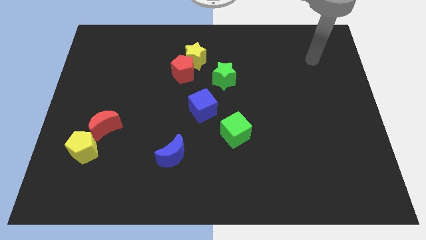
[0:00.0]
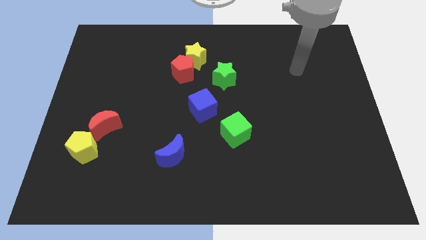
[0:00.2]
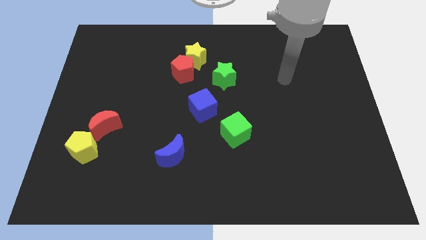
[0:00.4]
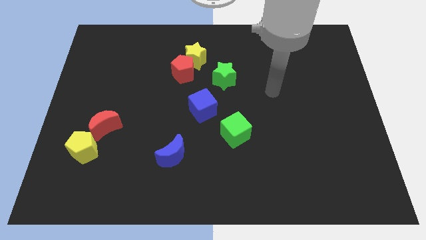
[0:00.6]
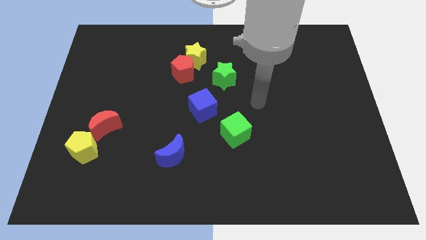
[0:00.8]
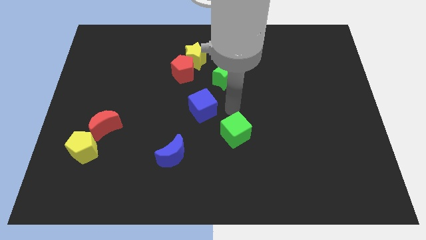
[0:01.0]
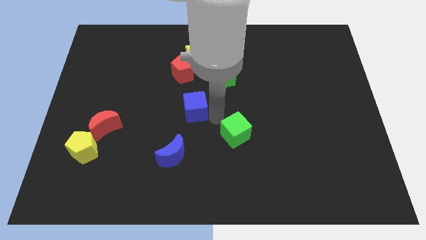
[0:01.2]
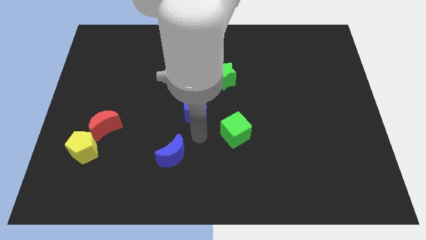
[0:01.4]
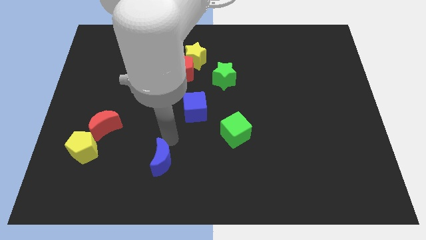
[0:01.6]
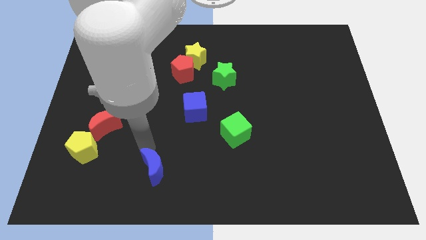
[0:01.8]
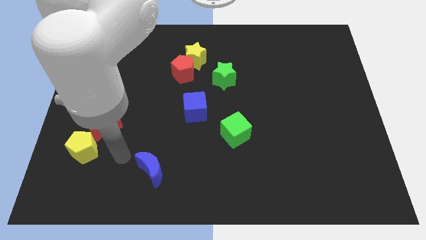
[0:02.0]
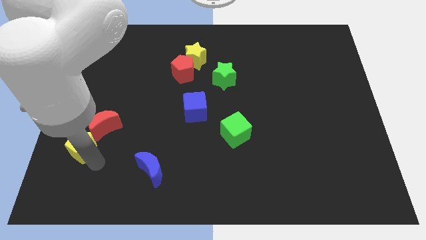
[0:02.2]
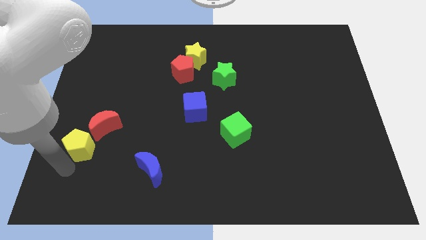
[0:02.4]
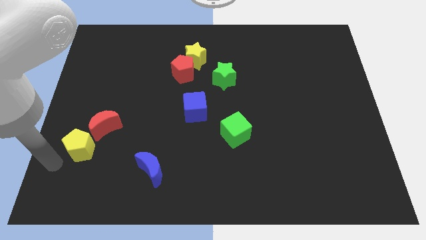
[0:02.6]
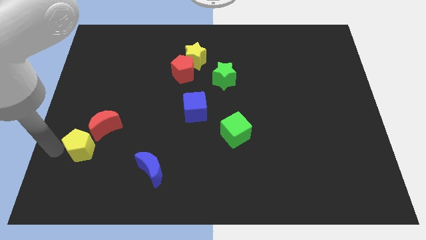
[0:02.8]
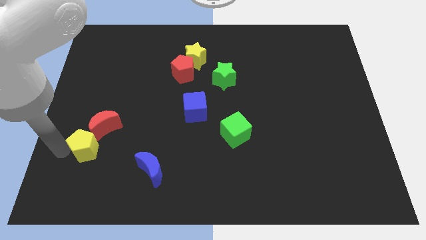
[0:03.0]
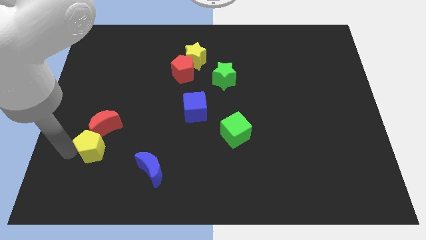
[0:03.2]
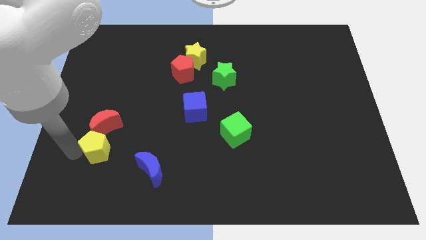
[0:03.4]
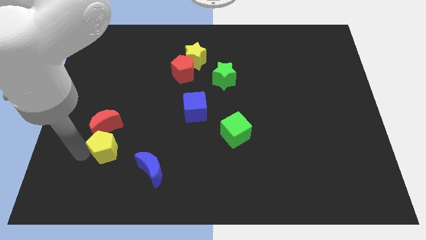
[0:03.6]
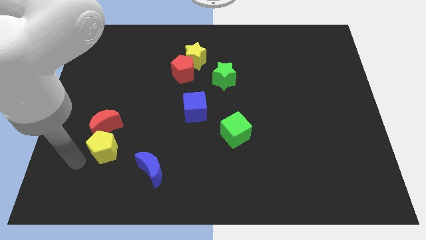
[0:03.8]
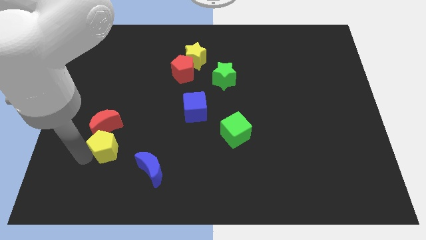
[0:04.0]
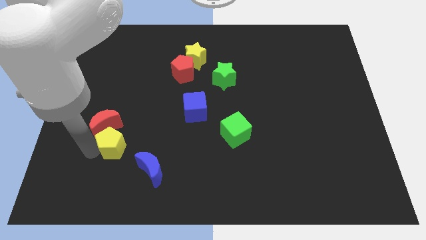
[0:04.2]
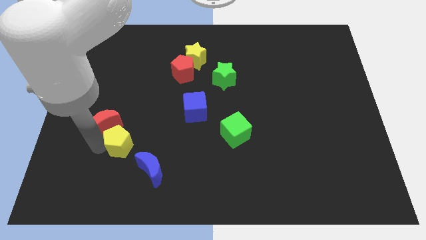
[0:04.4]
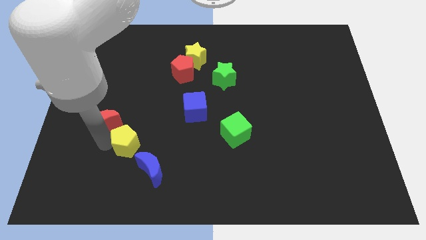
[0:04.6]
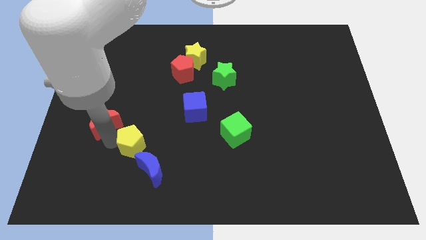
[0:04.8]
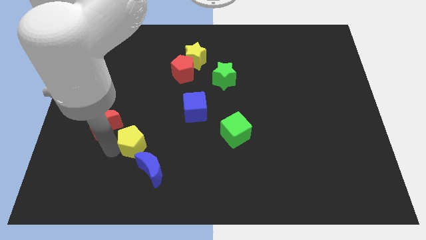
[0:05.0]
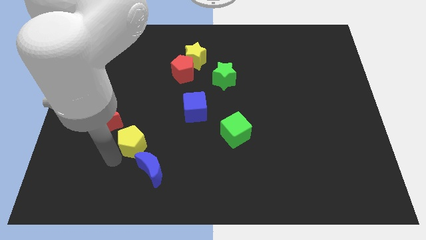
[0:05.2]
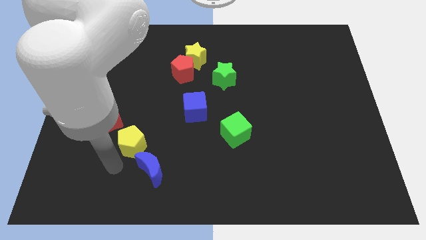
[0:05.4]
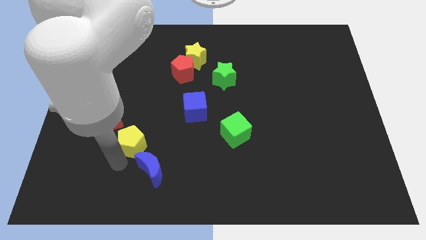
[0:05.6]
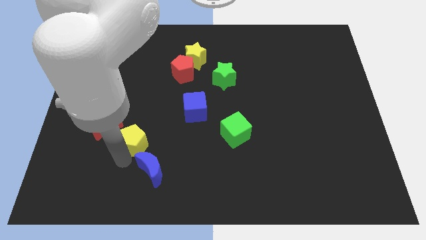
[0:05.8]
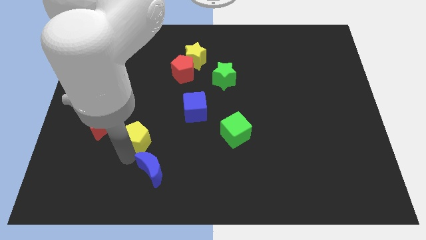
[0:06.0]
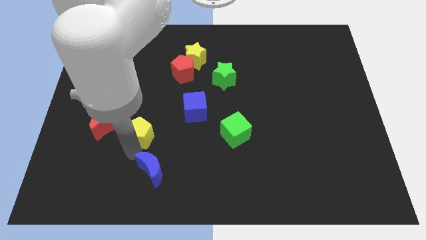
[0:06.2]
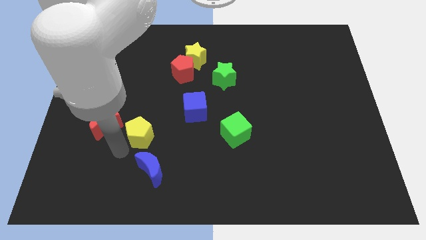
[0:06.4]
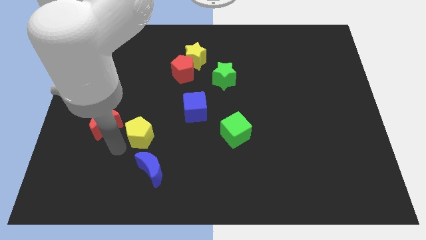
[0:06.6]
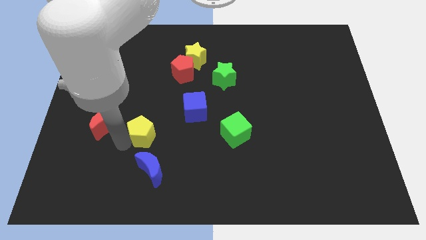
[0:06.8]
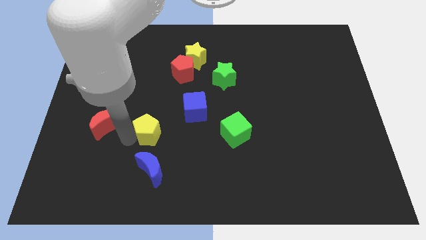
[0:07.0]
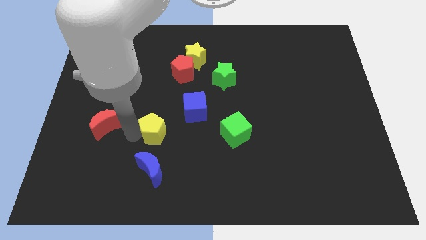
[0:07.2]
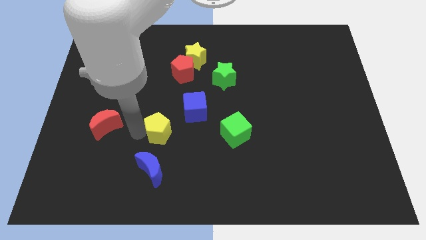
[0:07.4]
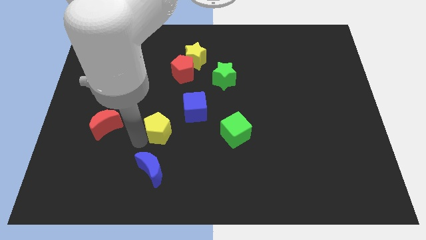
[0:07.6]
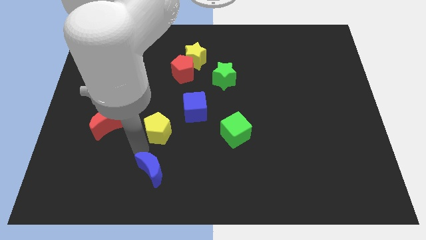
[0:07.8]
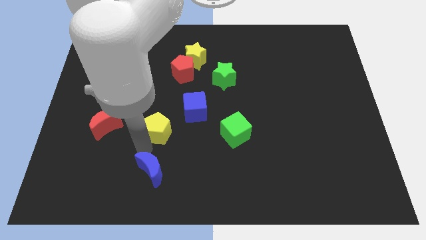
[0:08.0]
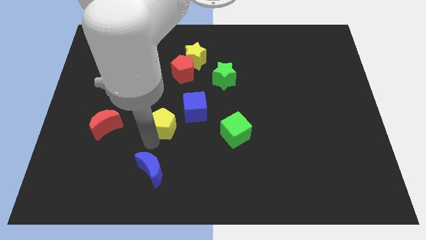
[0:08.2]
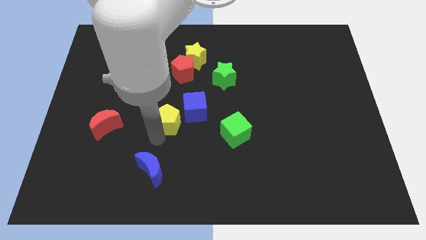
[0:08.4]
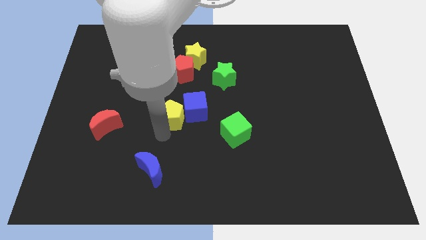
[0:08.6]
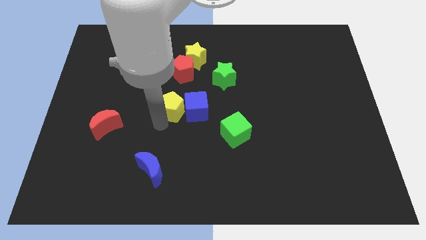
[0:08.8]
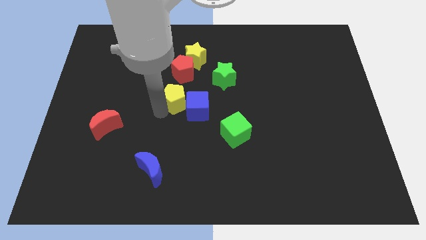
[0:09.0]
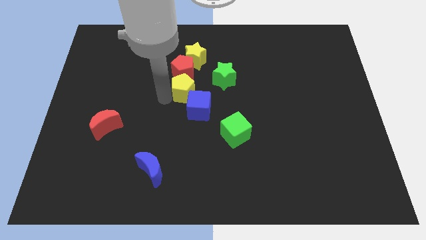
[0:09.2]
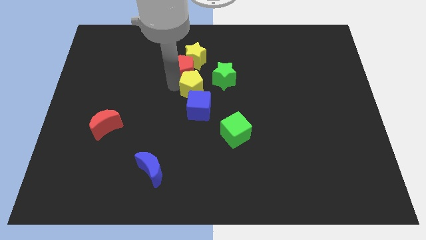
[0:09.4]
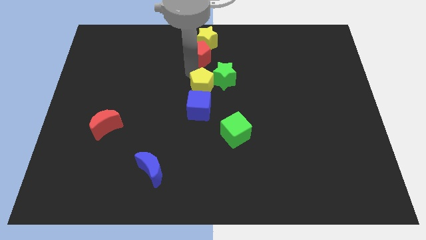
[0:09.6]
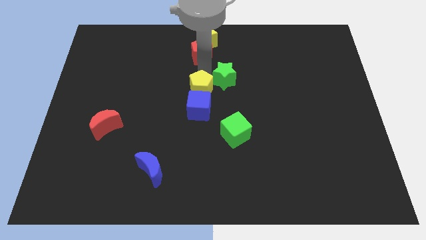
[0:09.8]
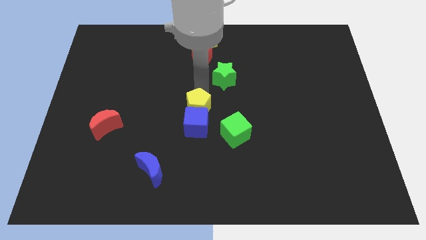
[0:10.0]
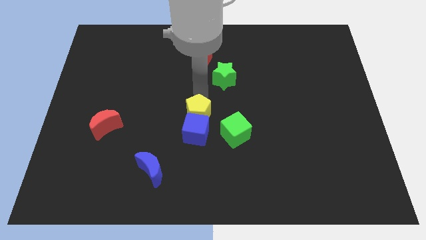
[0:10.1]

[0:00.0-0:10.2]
move the yellow pentagon right

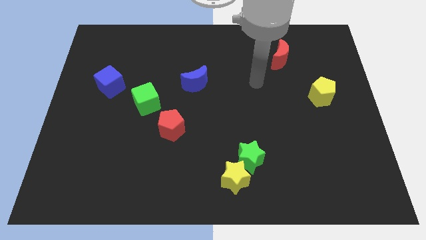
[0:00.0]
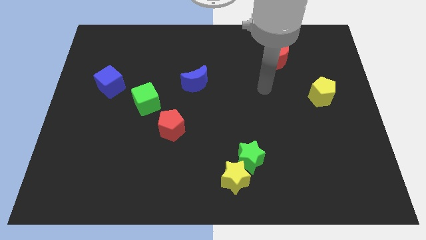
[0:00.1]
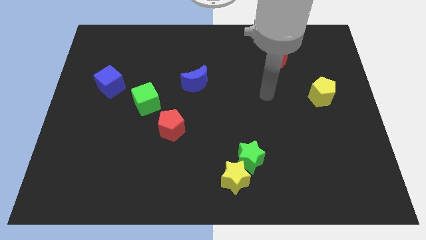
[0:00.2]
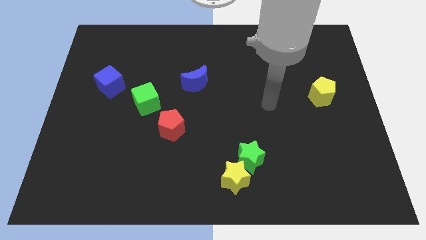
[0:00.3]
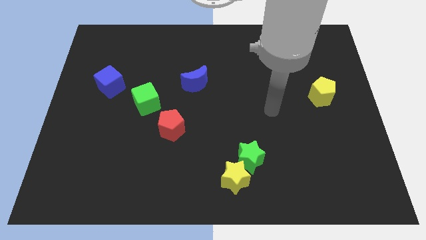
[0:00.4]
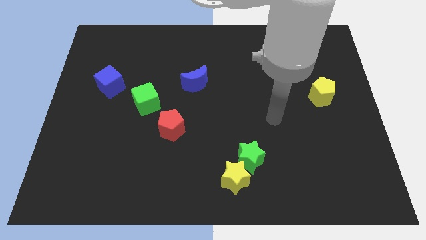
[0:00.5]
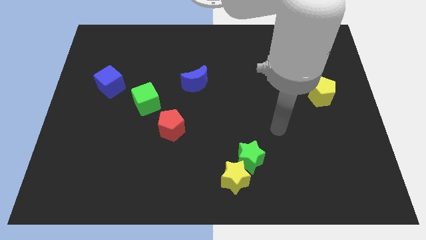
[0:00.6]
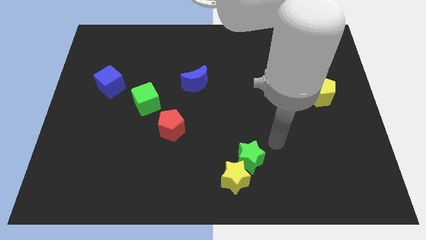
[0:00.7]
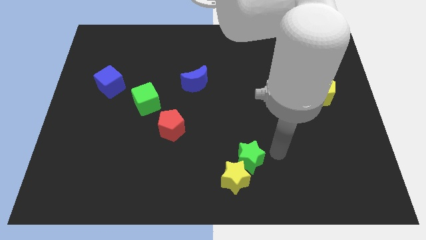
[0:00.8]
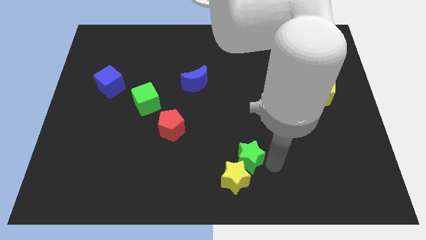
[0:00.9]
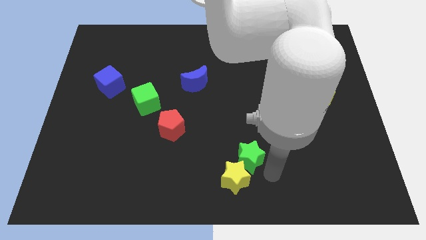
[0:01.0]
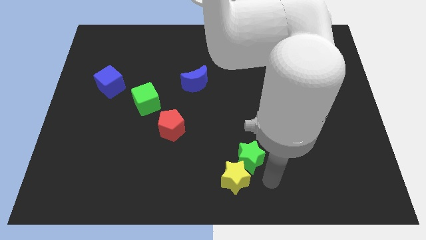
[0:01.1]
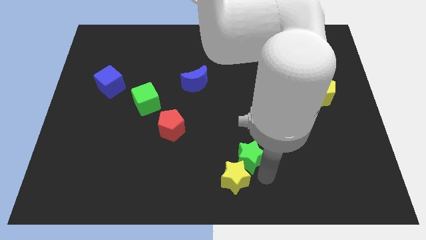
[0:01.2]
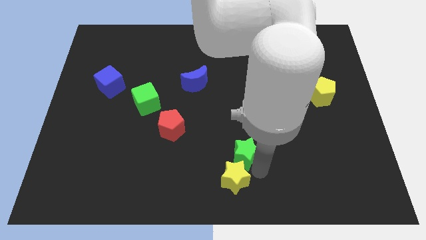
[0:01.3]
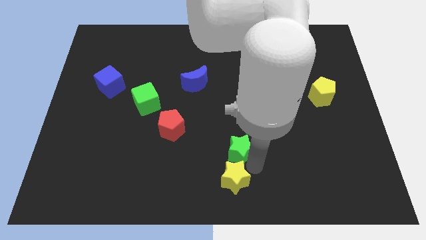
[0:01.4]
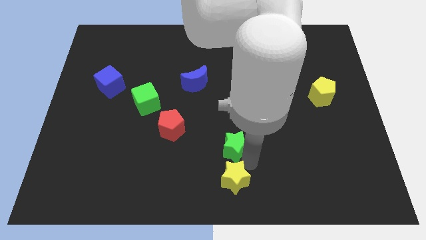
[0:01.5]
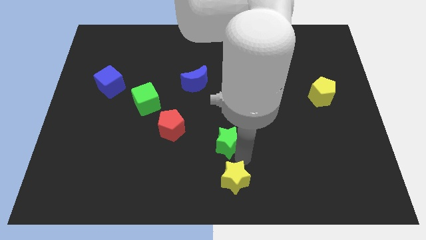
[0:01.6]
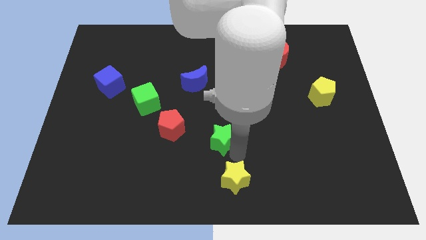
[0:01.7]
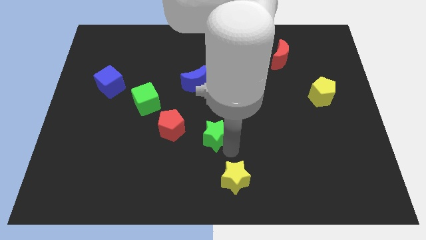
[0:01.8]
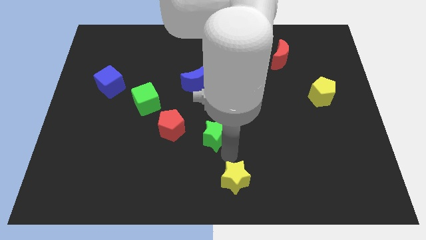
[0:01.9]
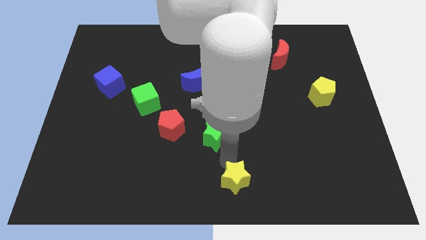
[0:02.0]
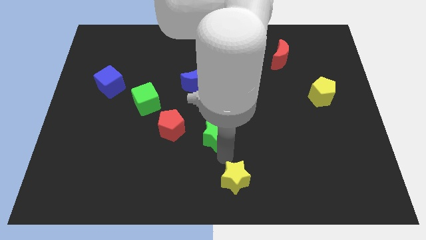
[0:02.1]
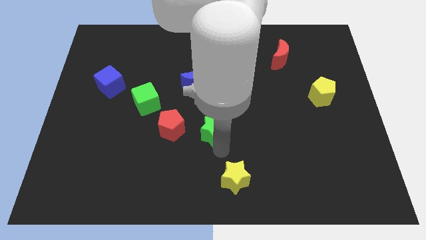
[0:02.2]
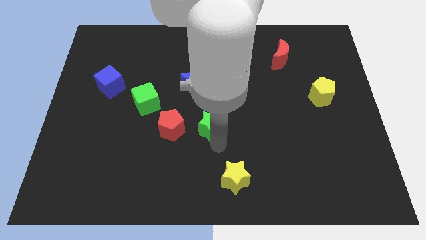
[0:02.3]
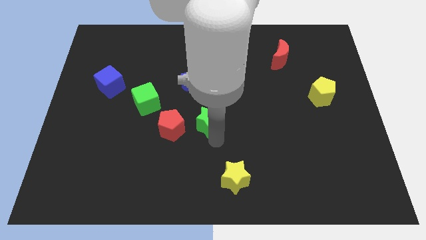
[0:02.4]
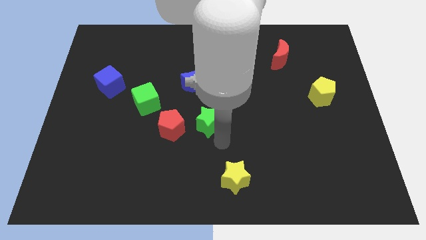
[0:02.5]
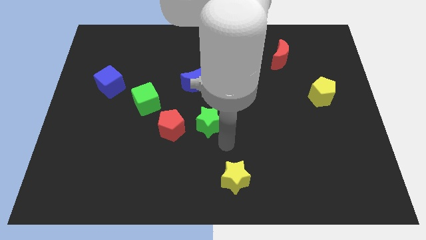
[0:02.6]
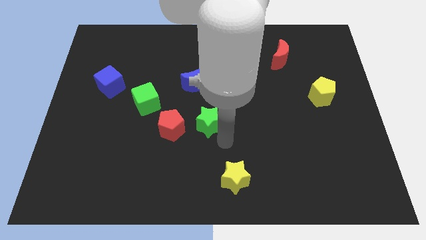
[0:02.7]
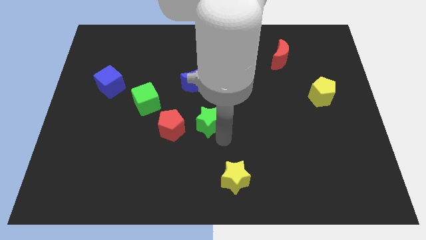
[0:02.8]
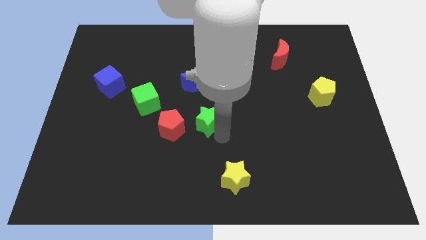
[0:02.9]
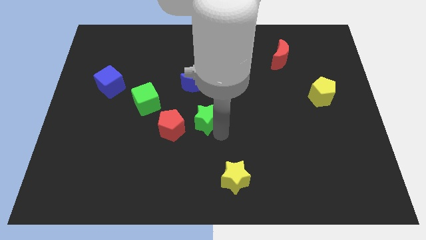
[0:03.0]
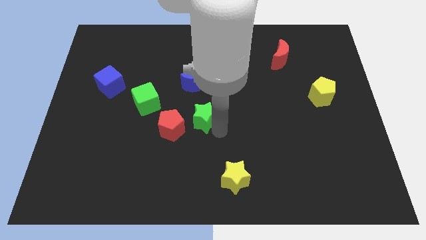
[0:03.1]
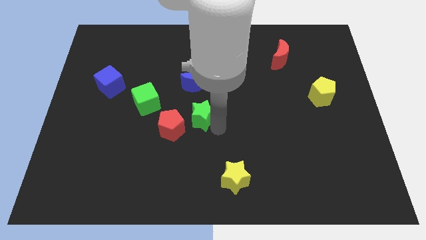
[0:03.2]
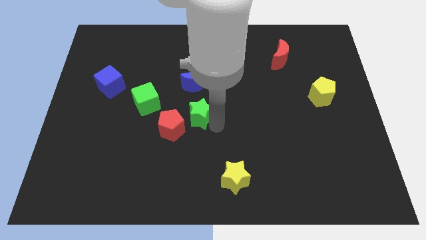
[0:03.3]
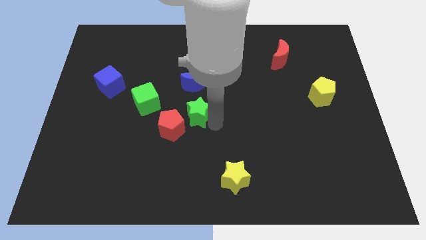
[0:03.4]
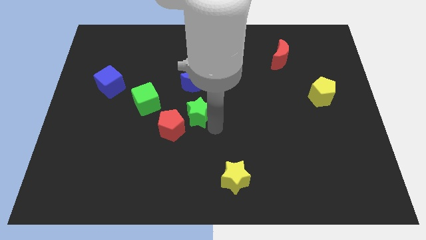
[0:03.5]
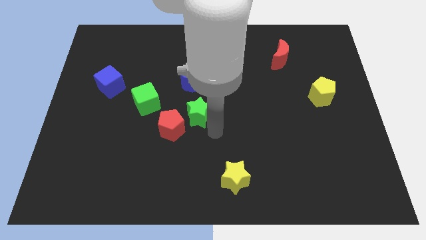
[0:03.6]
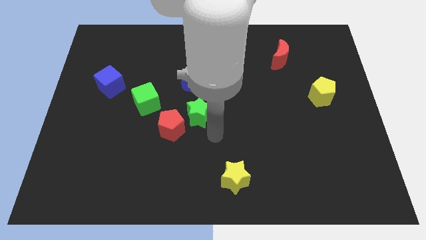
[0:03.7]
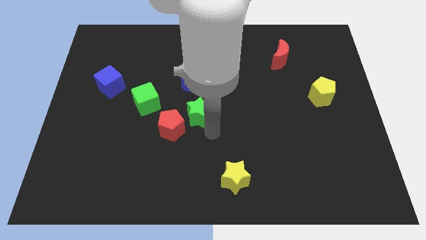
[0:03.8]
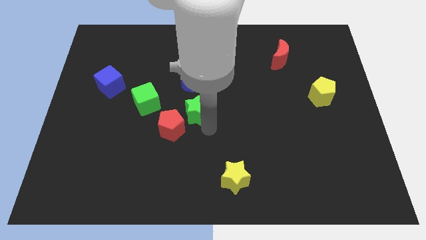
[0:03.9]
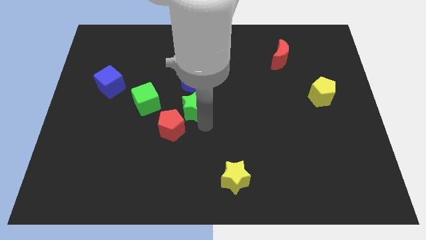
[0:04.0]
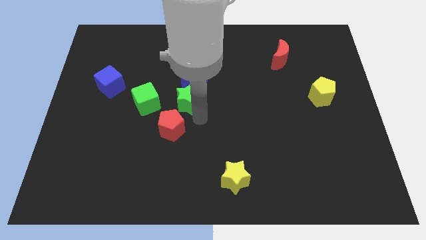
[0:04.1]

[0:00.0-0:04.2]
push the green star upwards and to the left diagonally
